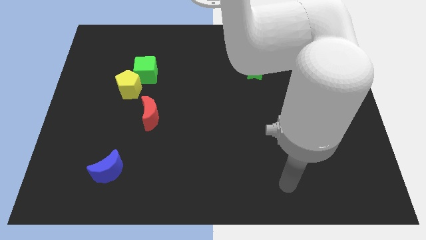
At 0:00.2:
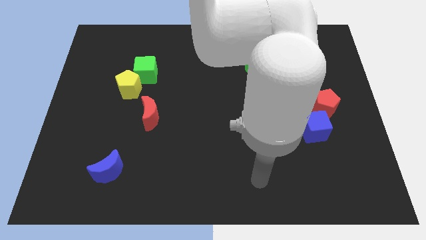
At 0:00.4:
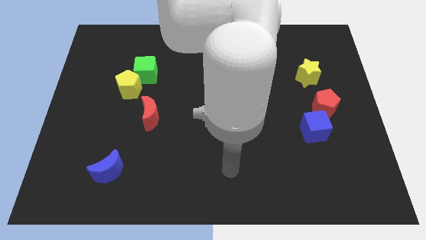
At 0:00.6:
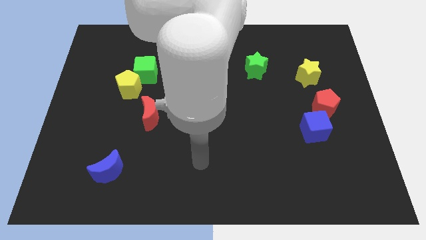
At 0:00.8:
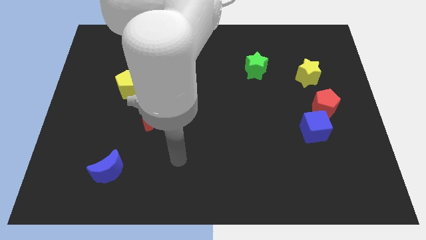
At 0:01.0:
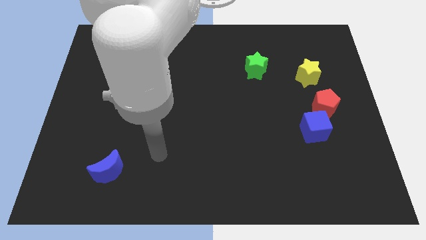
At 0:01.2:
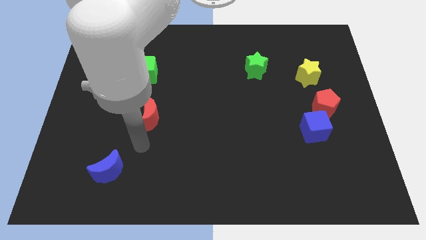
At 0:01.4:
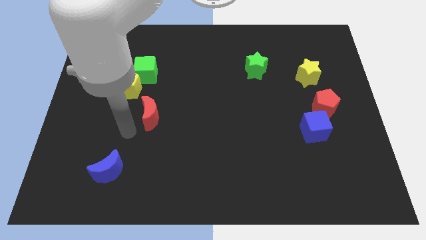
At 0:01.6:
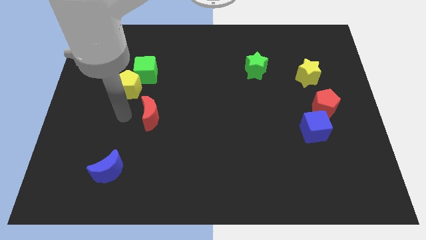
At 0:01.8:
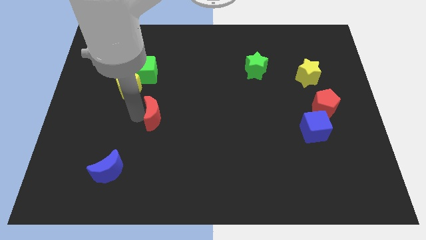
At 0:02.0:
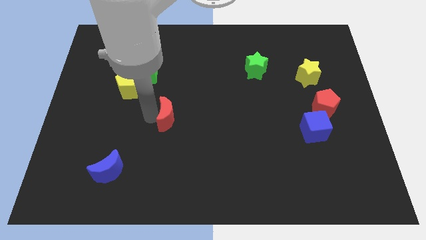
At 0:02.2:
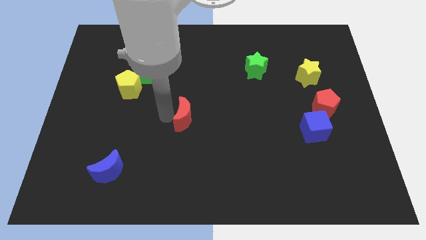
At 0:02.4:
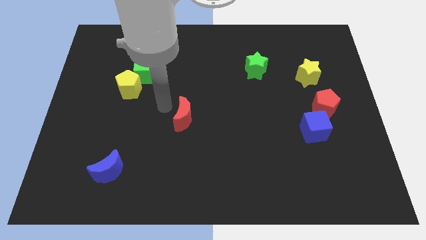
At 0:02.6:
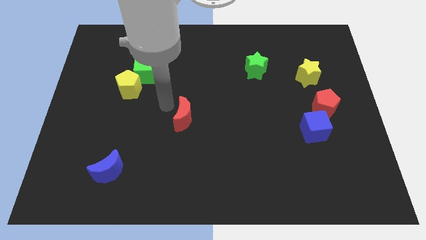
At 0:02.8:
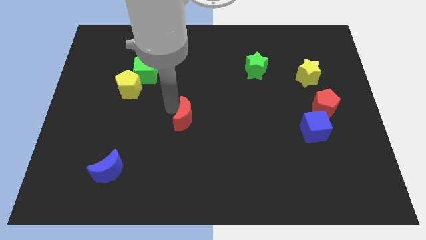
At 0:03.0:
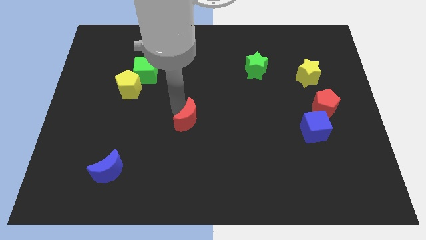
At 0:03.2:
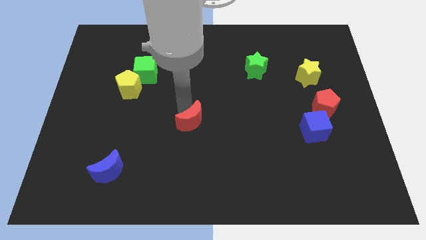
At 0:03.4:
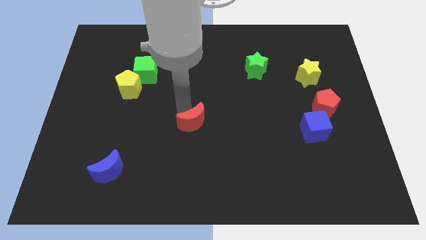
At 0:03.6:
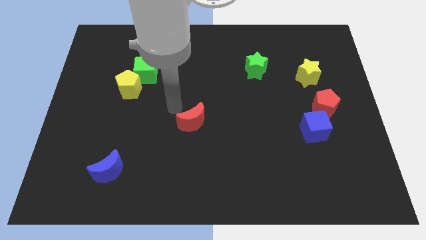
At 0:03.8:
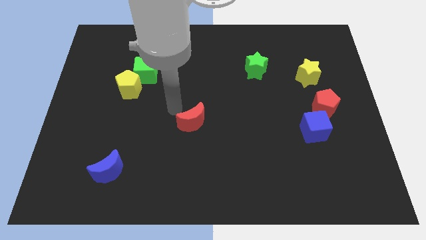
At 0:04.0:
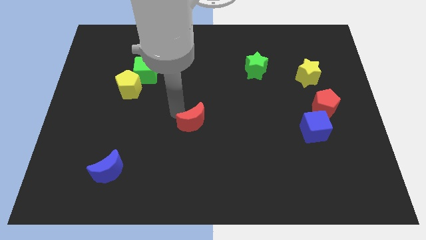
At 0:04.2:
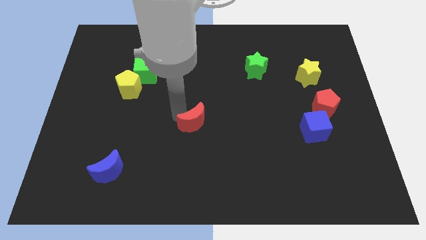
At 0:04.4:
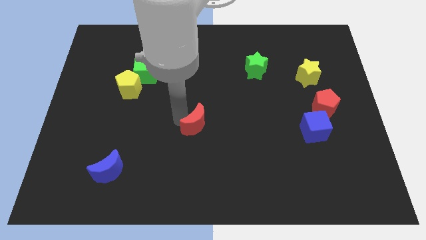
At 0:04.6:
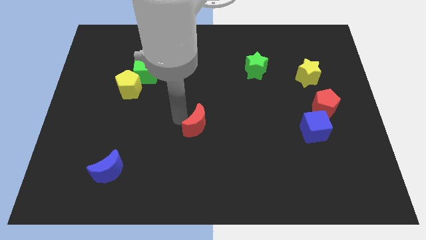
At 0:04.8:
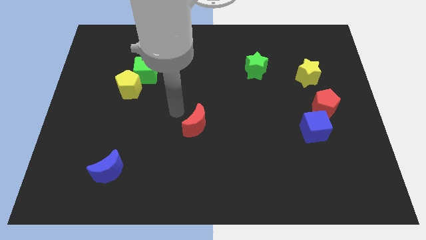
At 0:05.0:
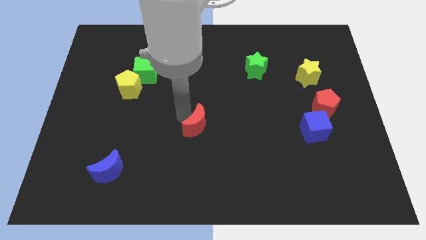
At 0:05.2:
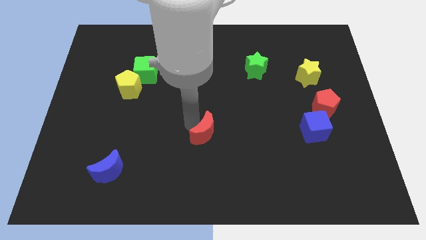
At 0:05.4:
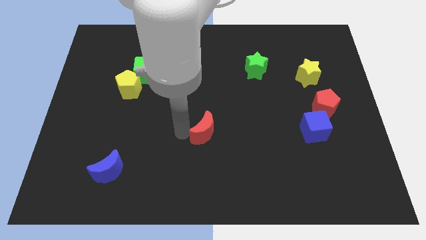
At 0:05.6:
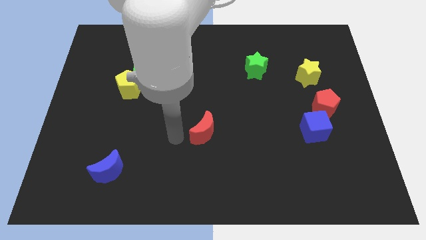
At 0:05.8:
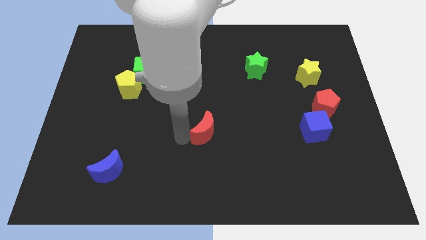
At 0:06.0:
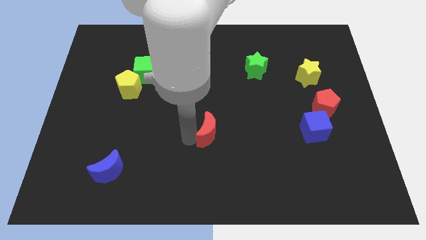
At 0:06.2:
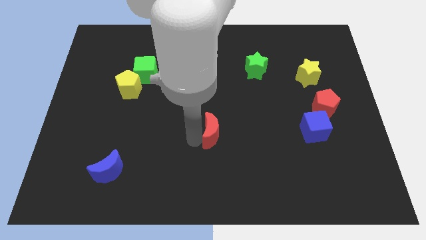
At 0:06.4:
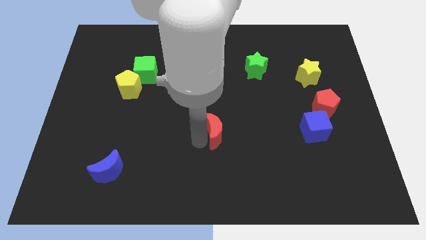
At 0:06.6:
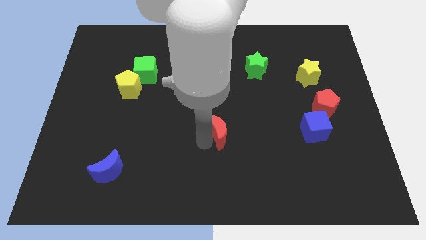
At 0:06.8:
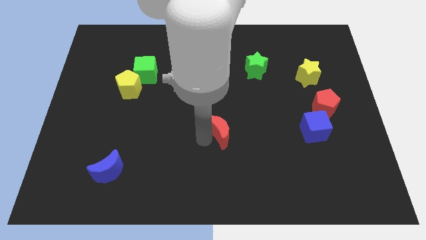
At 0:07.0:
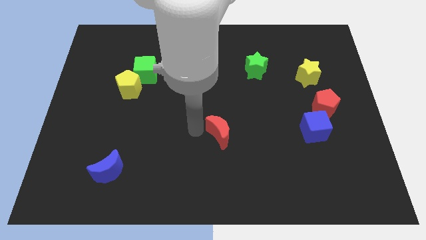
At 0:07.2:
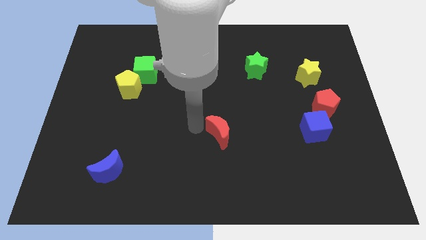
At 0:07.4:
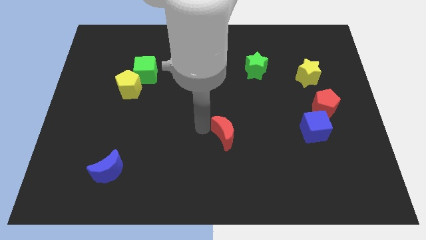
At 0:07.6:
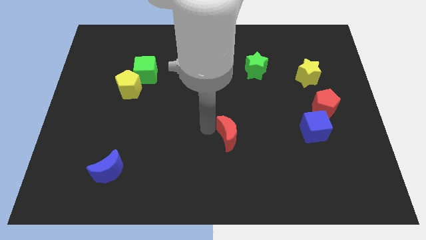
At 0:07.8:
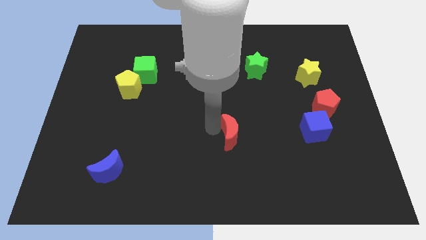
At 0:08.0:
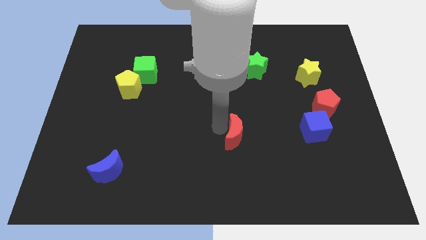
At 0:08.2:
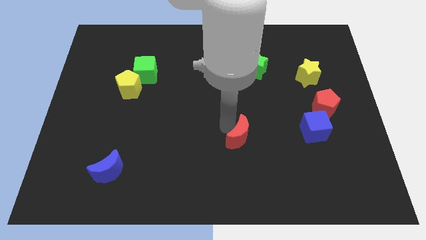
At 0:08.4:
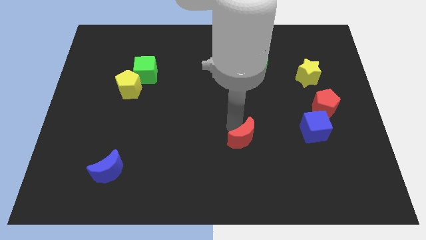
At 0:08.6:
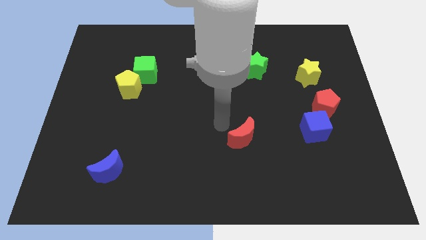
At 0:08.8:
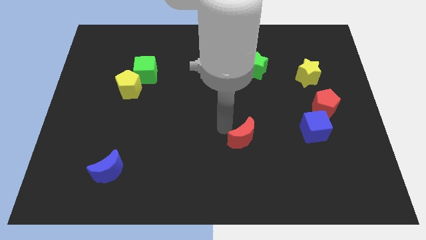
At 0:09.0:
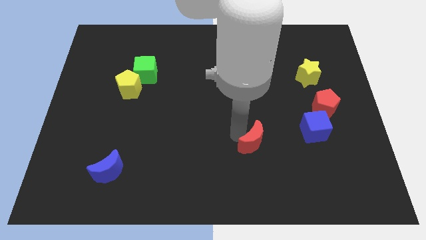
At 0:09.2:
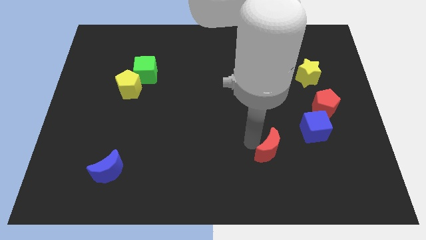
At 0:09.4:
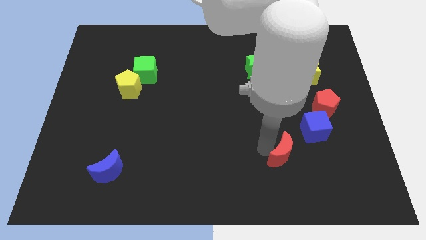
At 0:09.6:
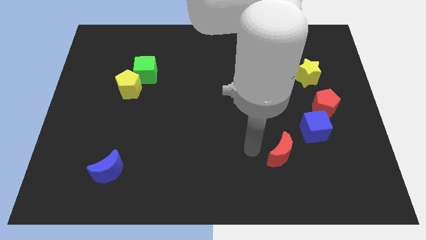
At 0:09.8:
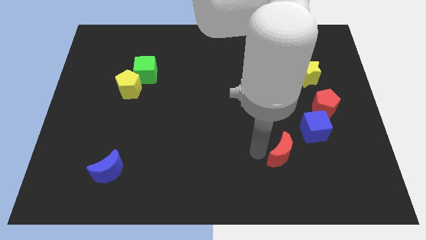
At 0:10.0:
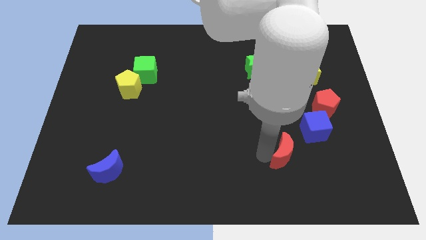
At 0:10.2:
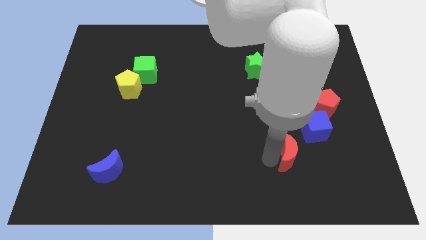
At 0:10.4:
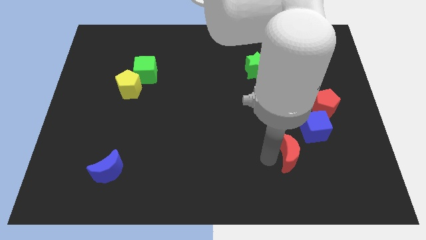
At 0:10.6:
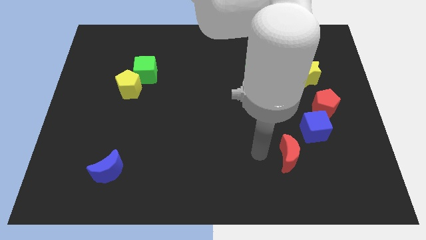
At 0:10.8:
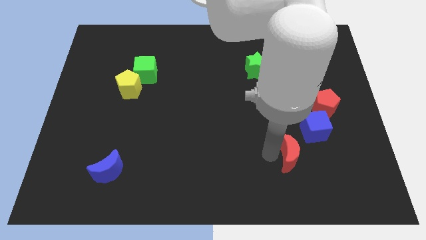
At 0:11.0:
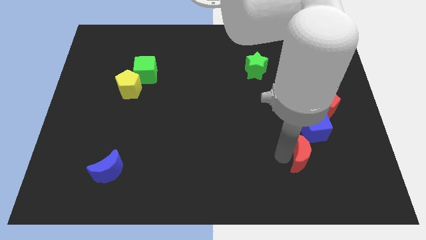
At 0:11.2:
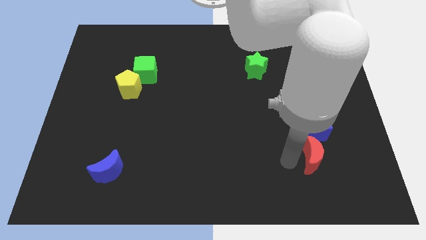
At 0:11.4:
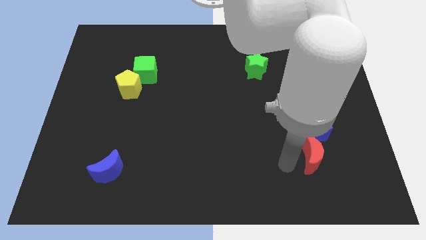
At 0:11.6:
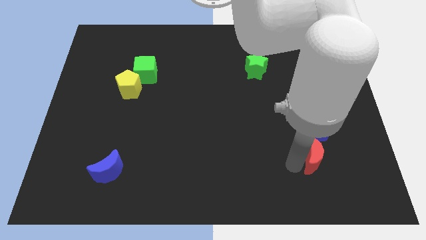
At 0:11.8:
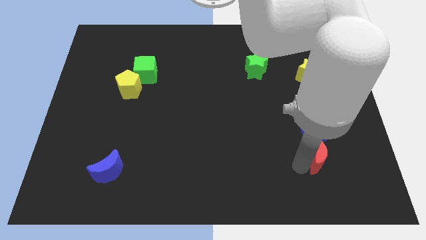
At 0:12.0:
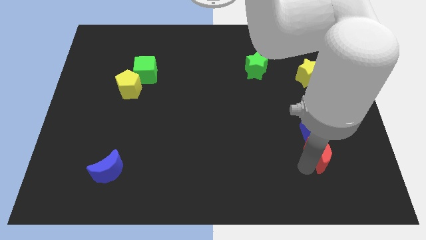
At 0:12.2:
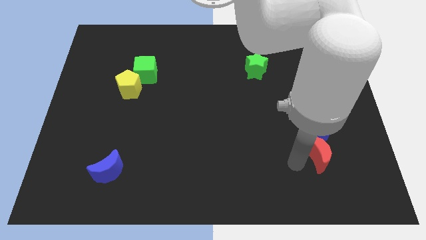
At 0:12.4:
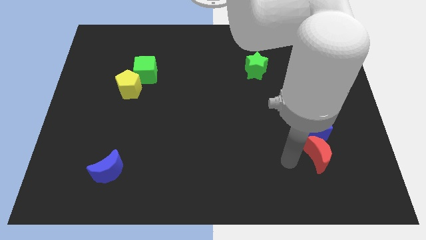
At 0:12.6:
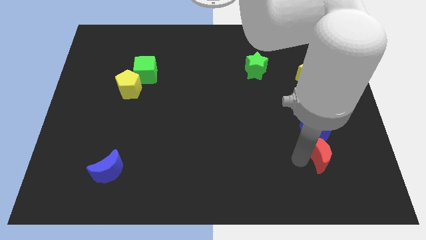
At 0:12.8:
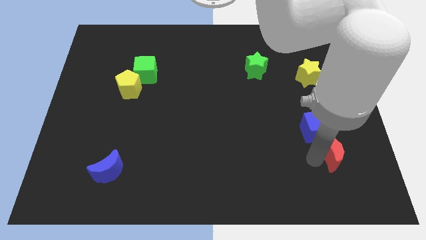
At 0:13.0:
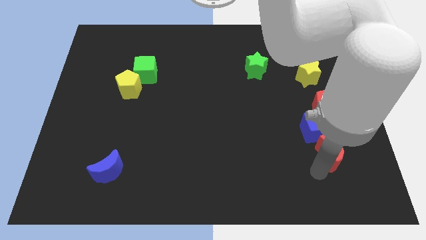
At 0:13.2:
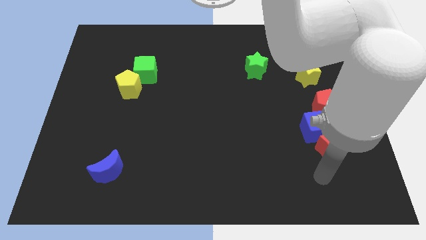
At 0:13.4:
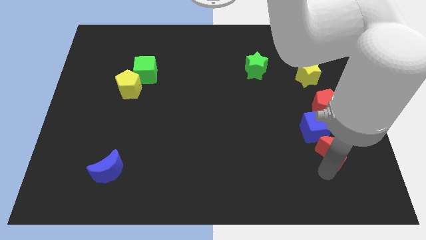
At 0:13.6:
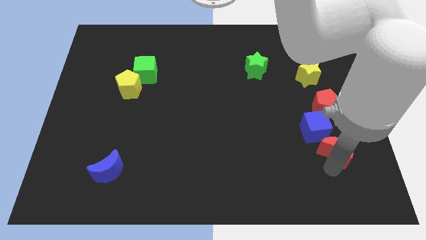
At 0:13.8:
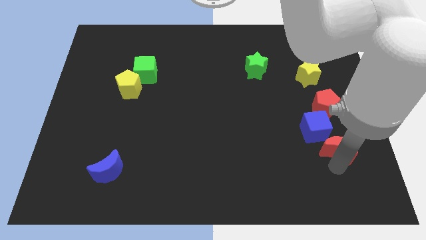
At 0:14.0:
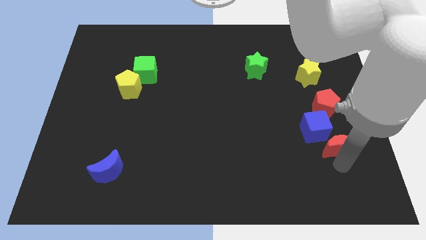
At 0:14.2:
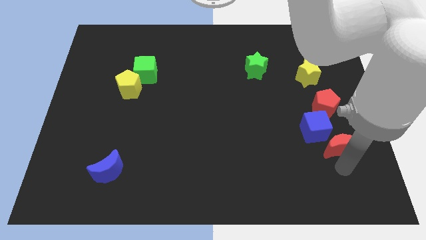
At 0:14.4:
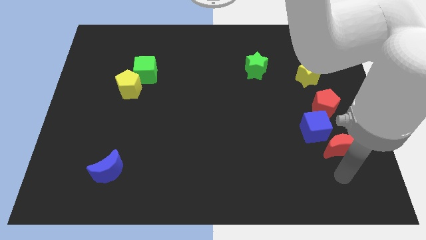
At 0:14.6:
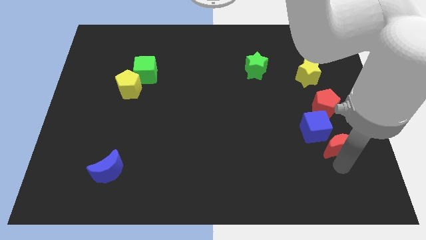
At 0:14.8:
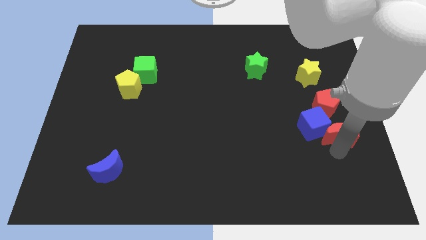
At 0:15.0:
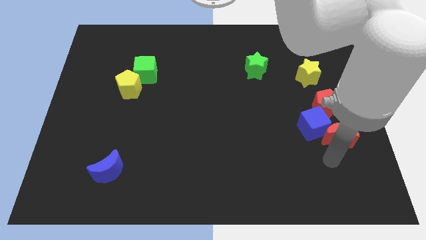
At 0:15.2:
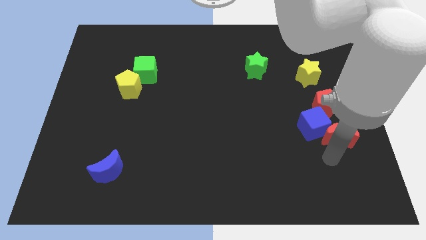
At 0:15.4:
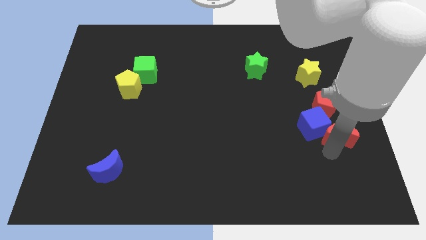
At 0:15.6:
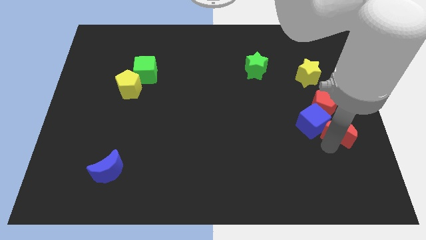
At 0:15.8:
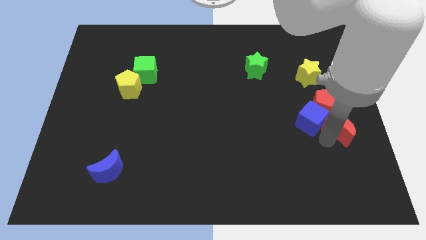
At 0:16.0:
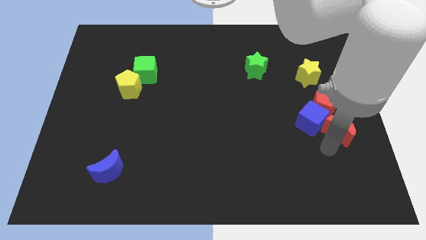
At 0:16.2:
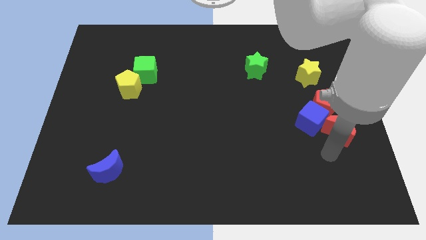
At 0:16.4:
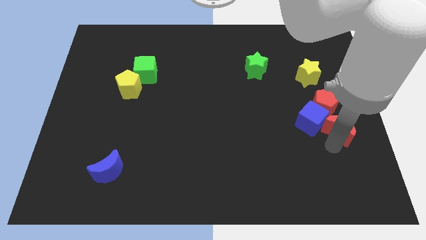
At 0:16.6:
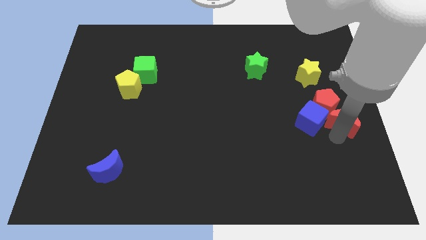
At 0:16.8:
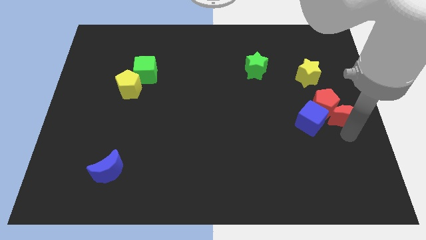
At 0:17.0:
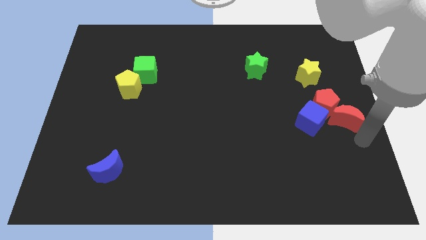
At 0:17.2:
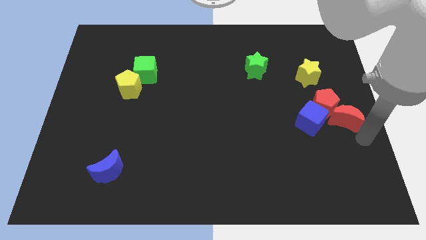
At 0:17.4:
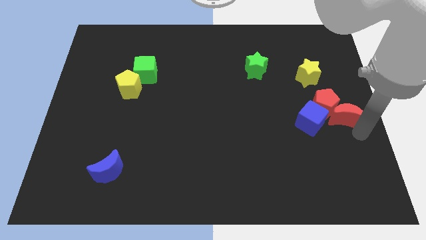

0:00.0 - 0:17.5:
slide the red moon to the top right of the blue cube
